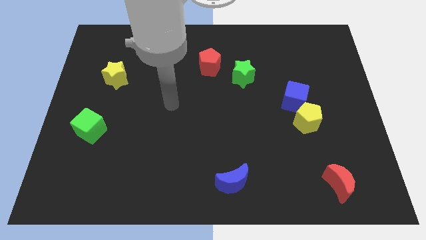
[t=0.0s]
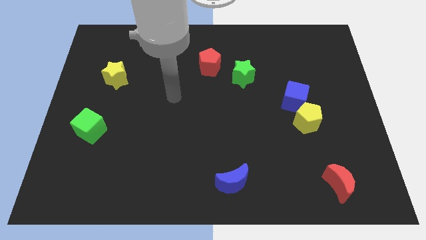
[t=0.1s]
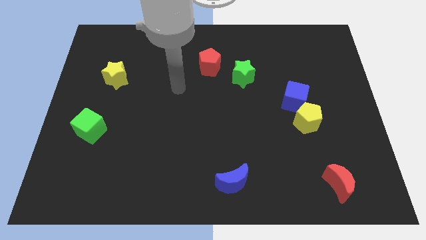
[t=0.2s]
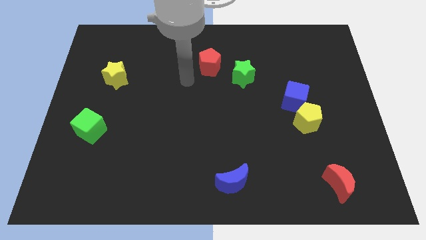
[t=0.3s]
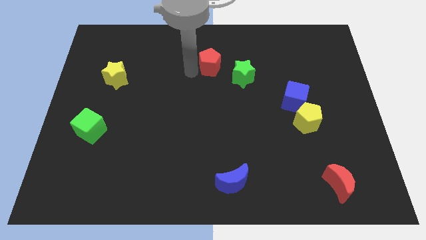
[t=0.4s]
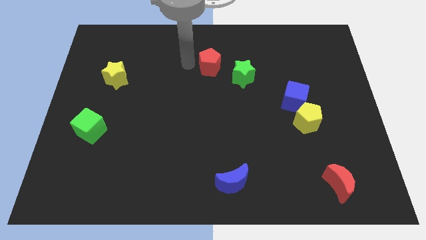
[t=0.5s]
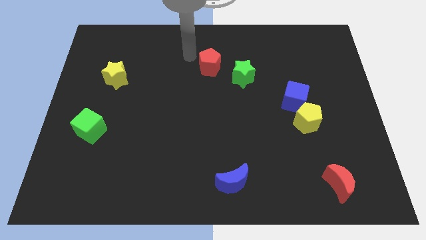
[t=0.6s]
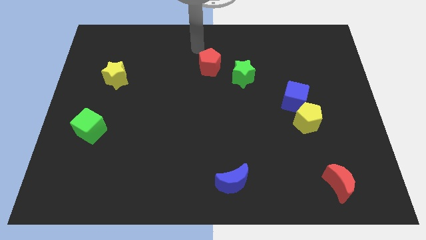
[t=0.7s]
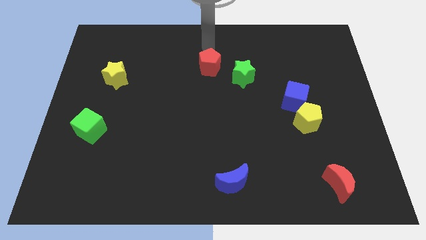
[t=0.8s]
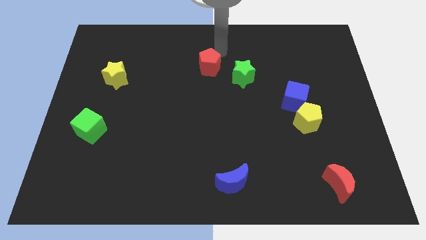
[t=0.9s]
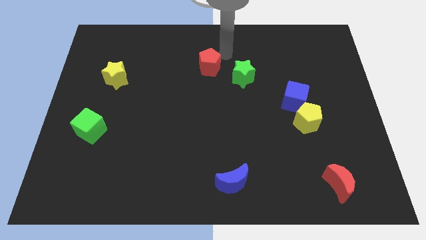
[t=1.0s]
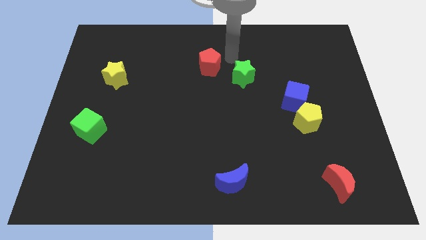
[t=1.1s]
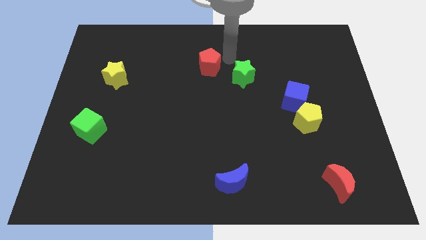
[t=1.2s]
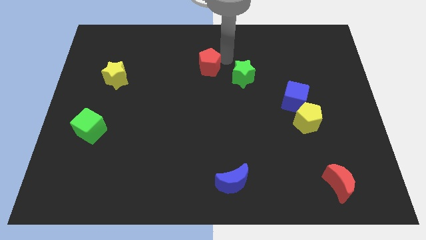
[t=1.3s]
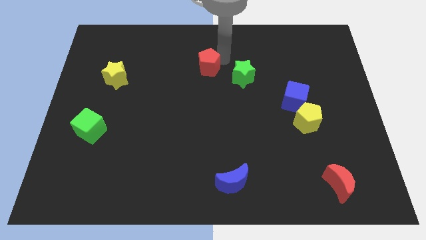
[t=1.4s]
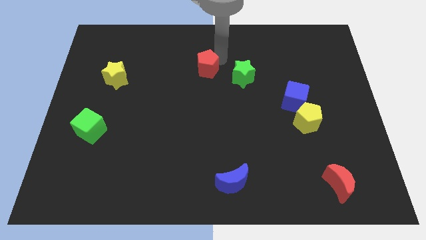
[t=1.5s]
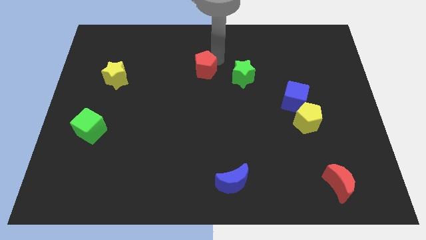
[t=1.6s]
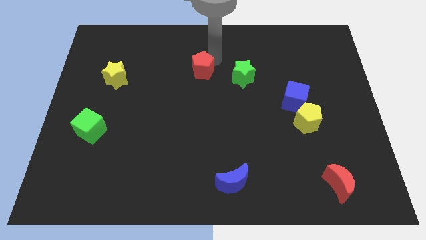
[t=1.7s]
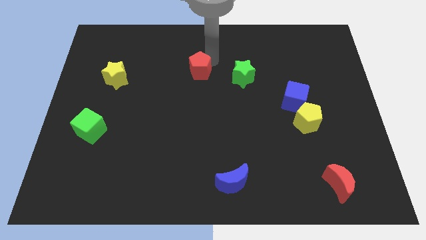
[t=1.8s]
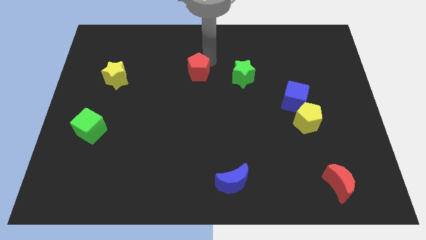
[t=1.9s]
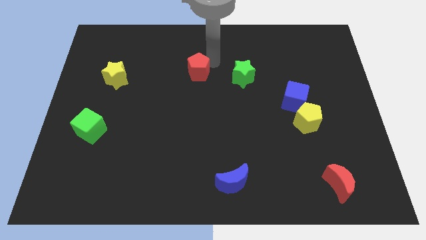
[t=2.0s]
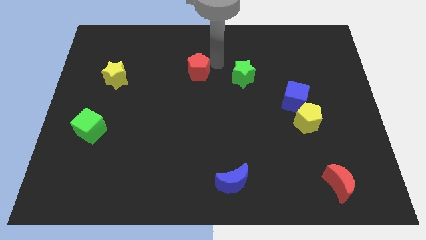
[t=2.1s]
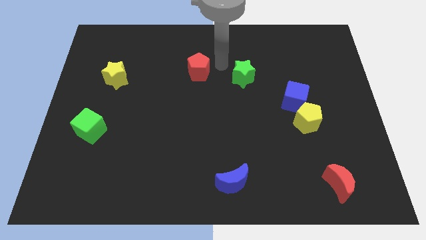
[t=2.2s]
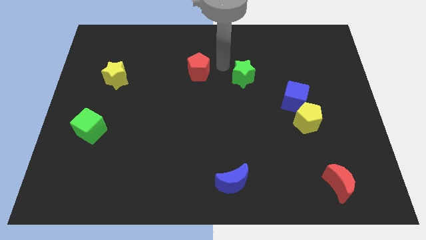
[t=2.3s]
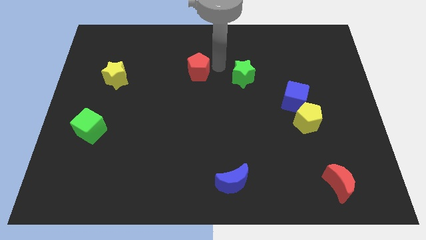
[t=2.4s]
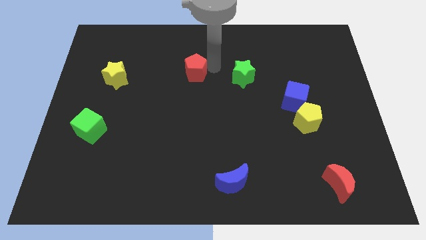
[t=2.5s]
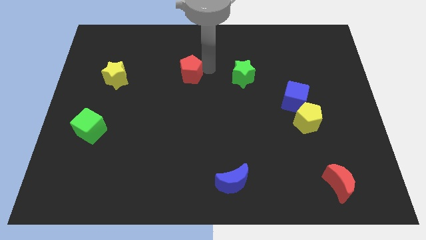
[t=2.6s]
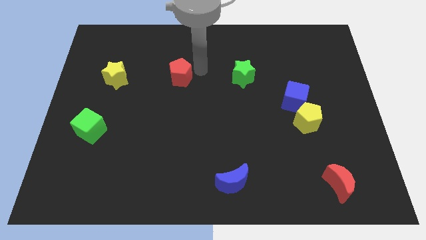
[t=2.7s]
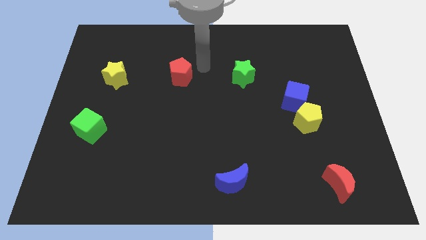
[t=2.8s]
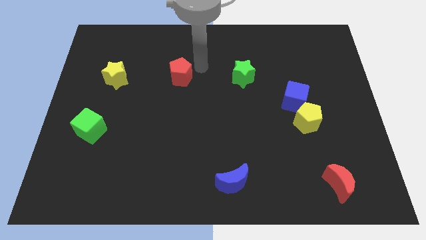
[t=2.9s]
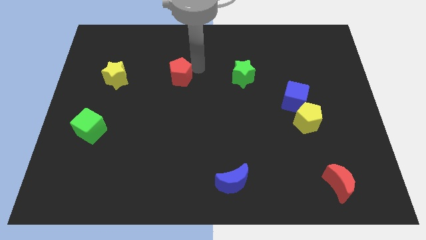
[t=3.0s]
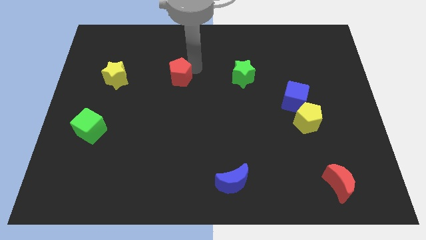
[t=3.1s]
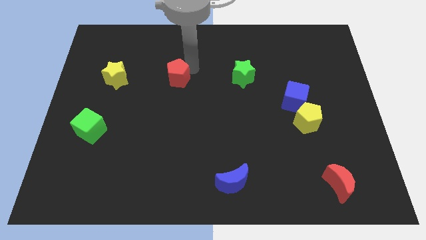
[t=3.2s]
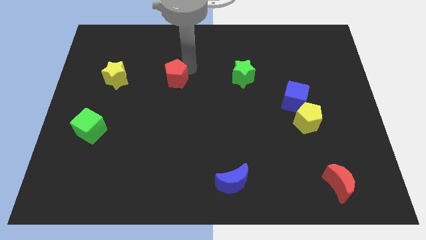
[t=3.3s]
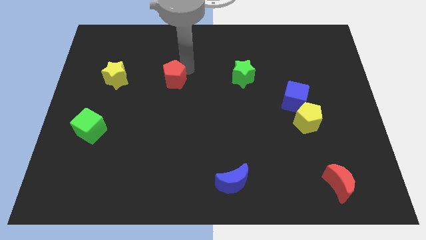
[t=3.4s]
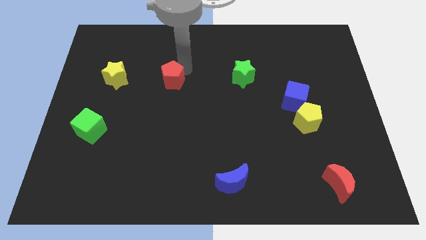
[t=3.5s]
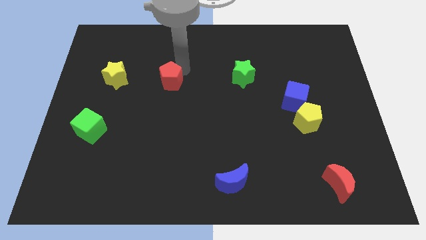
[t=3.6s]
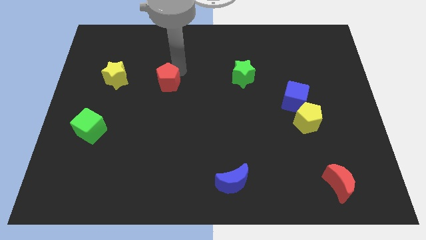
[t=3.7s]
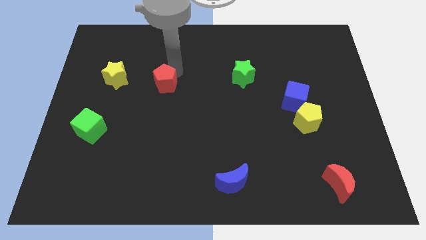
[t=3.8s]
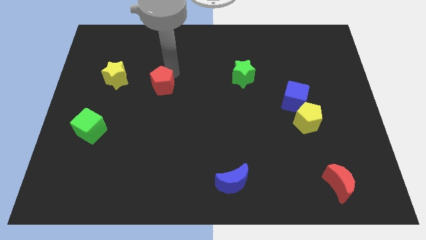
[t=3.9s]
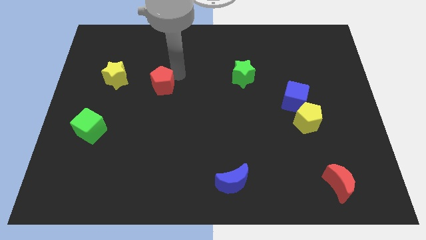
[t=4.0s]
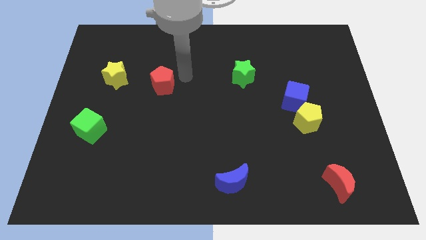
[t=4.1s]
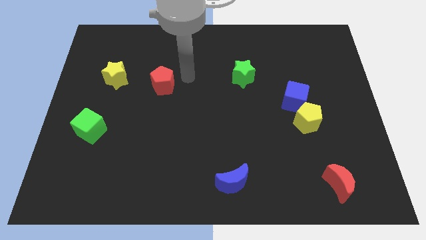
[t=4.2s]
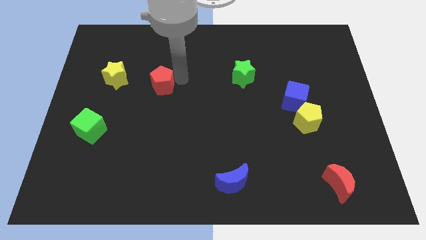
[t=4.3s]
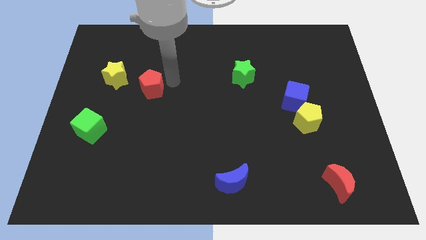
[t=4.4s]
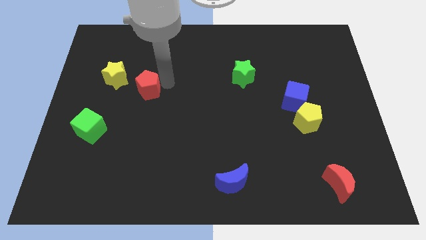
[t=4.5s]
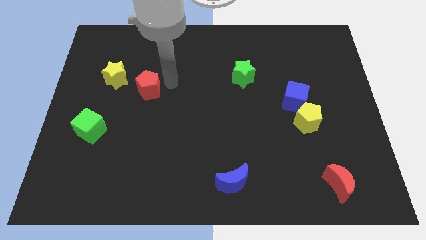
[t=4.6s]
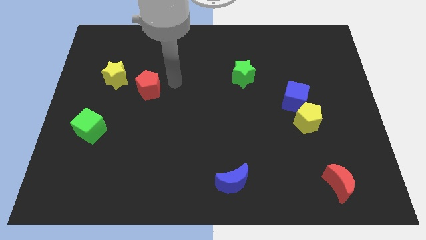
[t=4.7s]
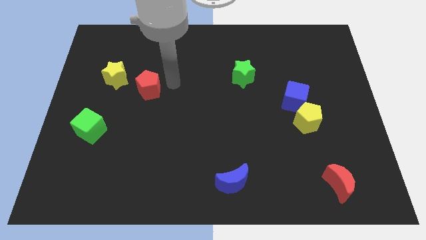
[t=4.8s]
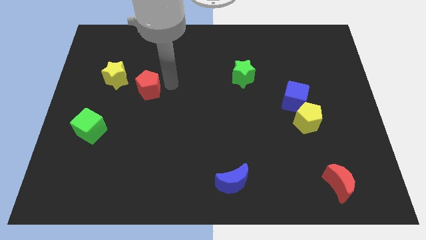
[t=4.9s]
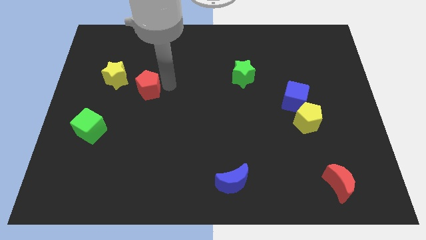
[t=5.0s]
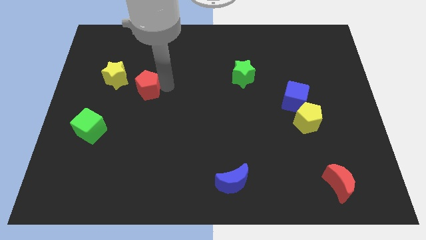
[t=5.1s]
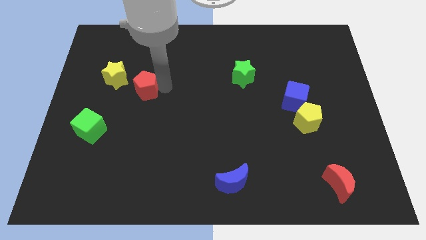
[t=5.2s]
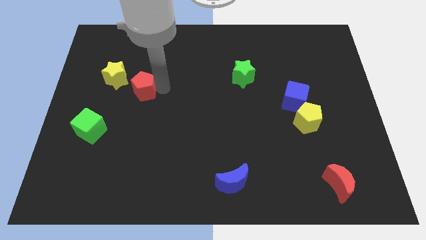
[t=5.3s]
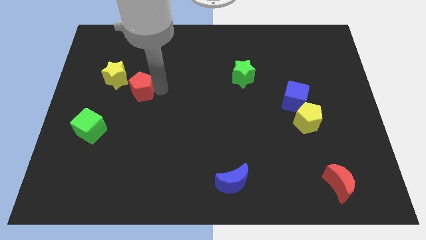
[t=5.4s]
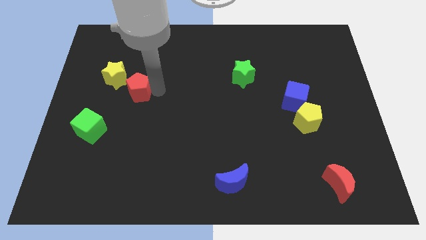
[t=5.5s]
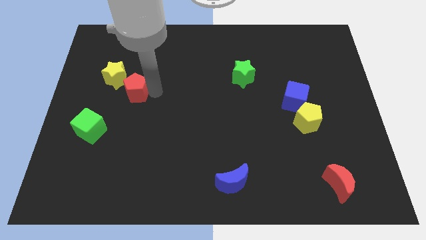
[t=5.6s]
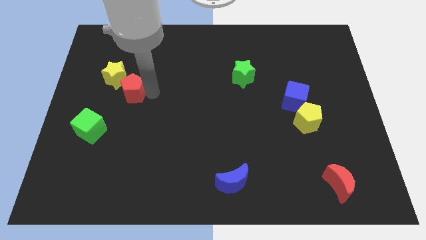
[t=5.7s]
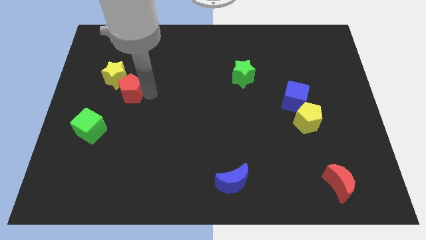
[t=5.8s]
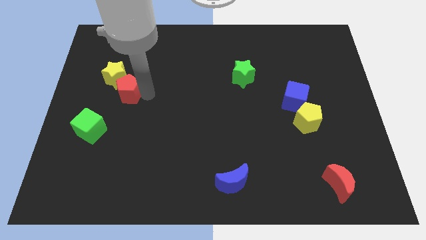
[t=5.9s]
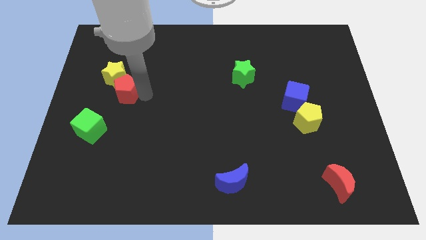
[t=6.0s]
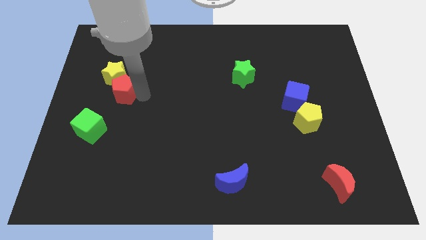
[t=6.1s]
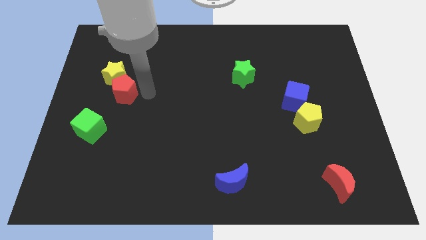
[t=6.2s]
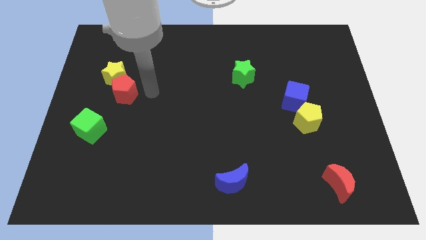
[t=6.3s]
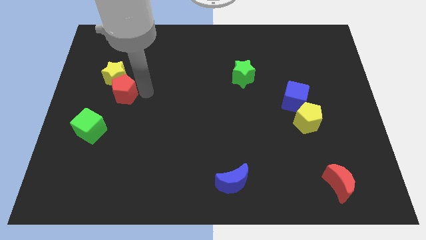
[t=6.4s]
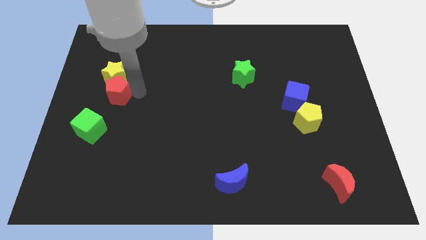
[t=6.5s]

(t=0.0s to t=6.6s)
slide the red pentagon to the top side of the green cube
